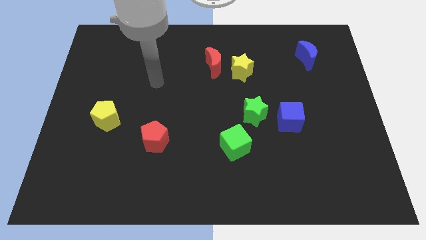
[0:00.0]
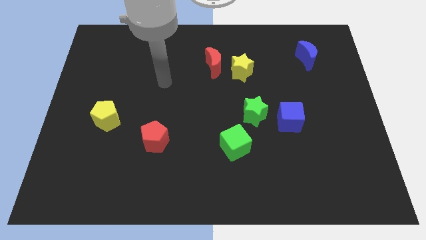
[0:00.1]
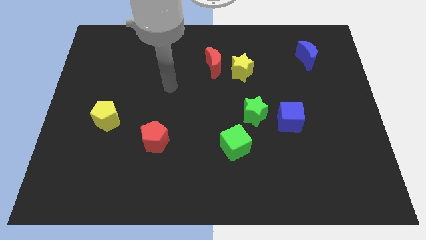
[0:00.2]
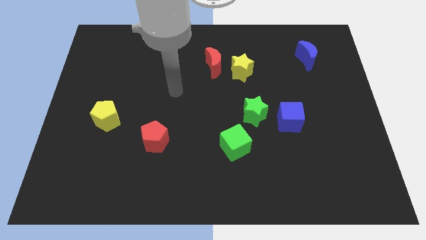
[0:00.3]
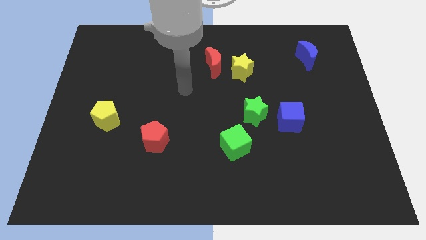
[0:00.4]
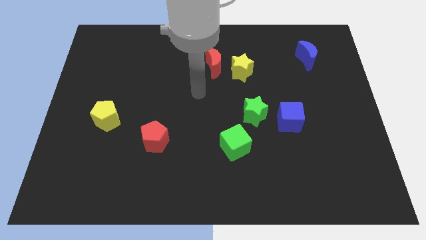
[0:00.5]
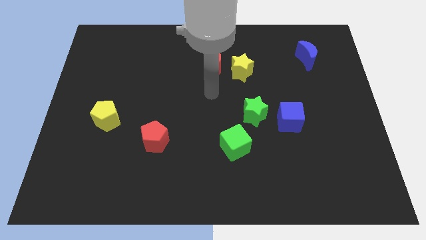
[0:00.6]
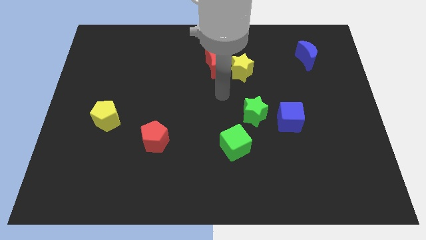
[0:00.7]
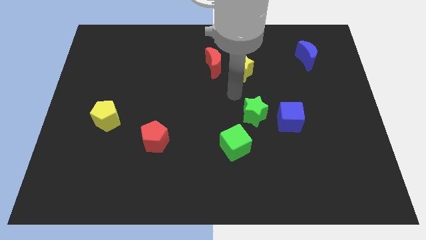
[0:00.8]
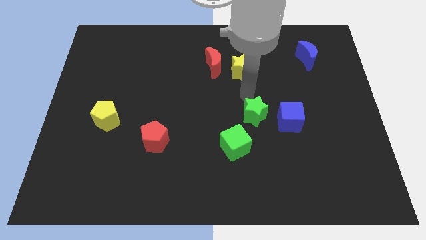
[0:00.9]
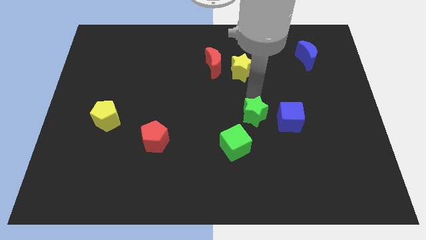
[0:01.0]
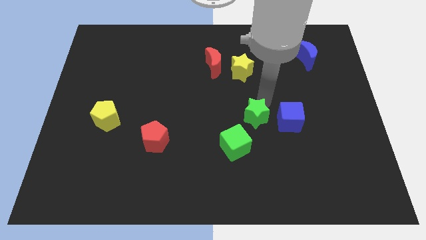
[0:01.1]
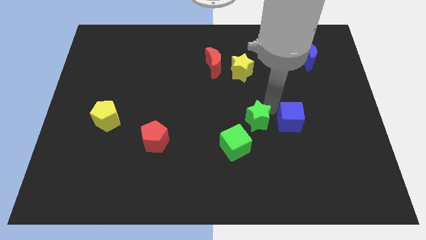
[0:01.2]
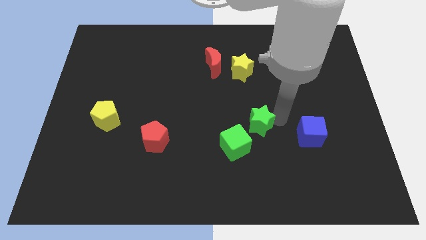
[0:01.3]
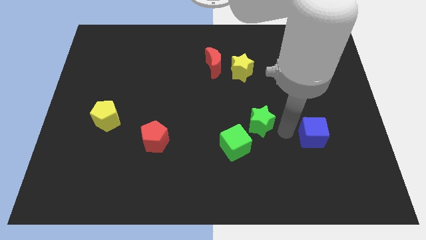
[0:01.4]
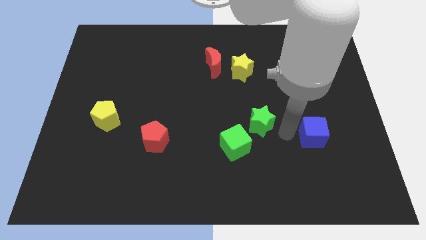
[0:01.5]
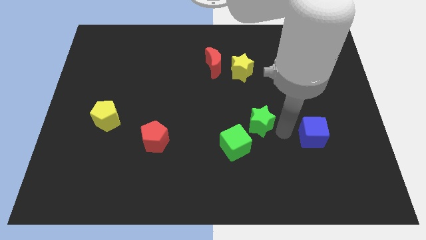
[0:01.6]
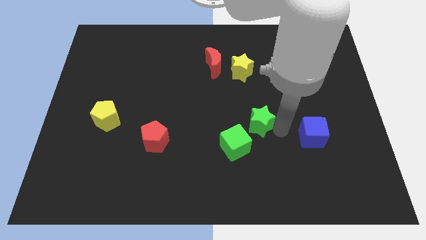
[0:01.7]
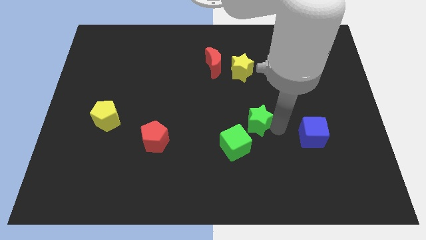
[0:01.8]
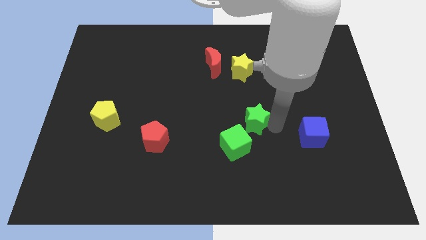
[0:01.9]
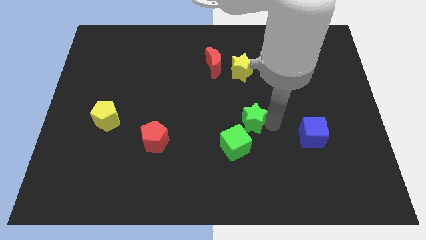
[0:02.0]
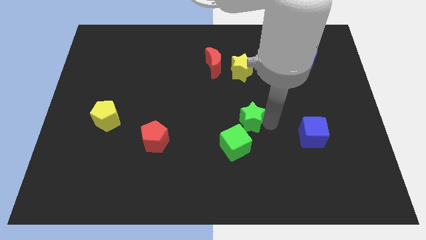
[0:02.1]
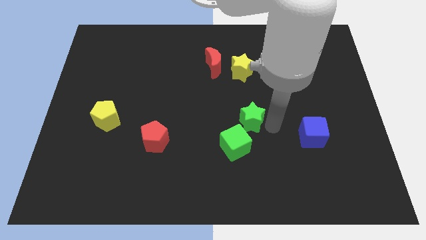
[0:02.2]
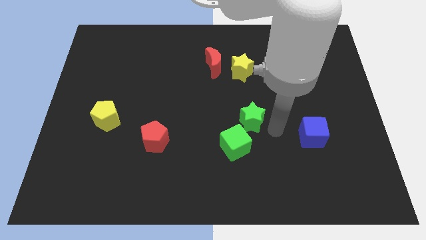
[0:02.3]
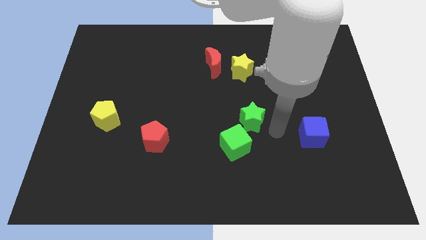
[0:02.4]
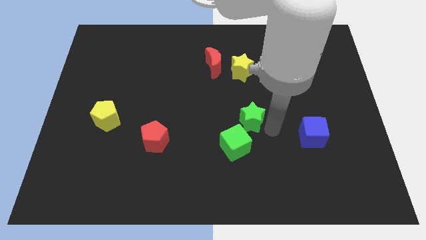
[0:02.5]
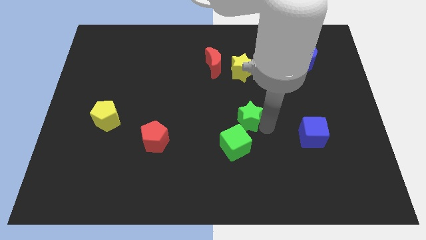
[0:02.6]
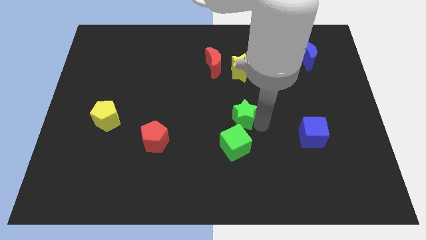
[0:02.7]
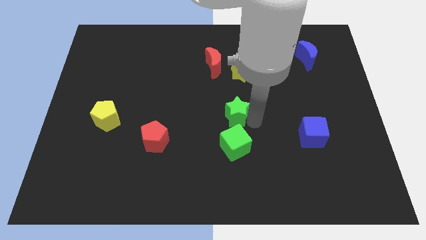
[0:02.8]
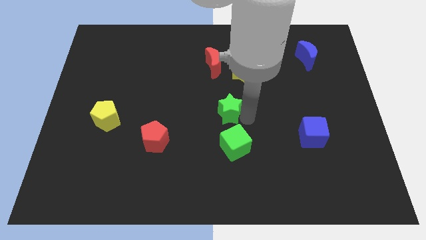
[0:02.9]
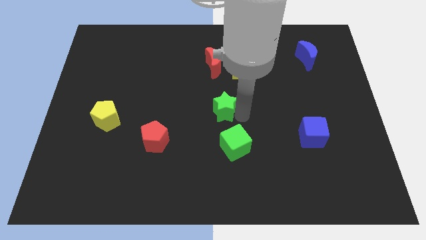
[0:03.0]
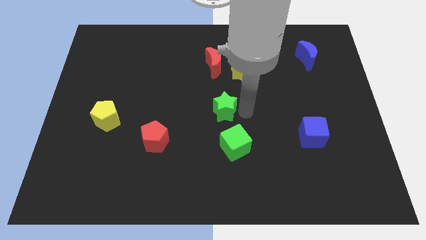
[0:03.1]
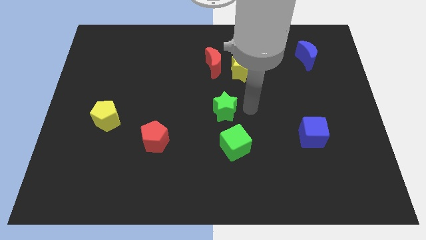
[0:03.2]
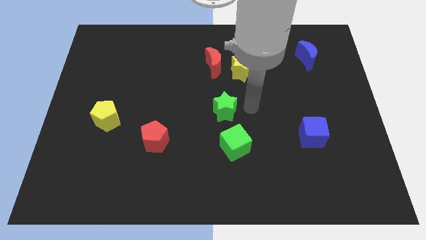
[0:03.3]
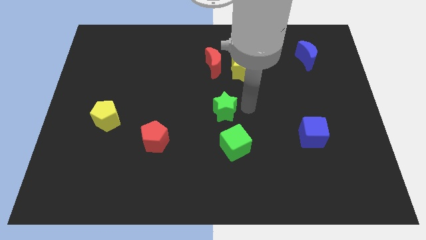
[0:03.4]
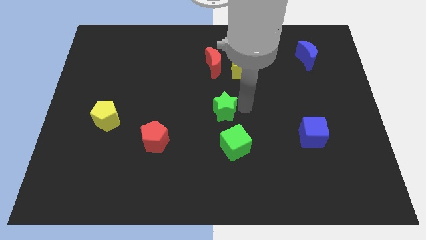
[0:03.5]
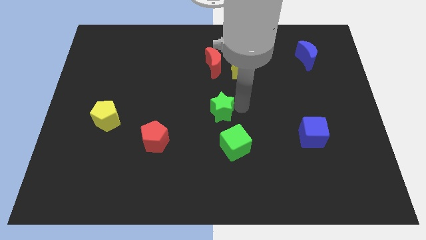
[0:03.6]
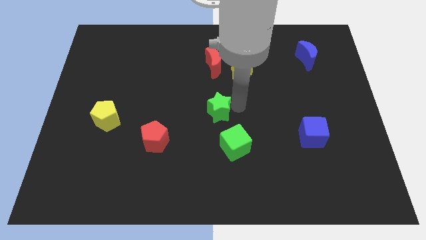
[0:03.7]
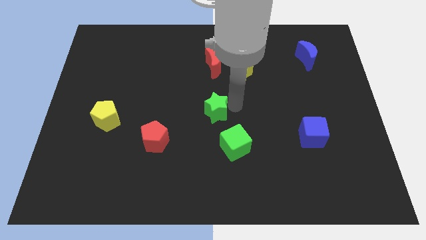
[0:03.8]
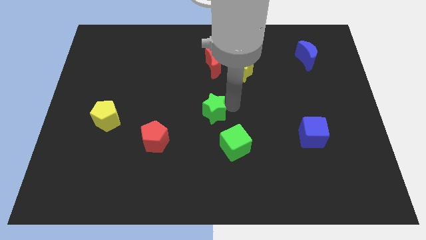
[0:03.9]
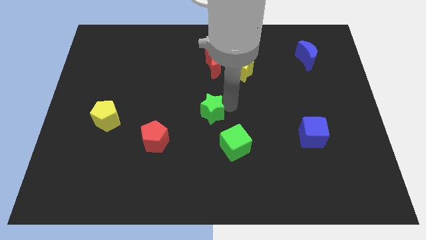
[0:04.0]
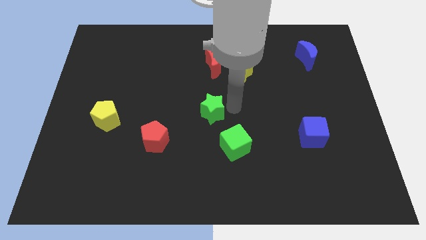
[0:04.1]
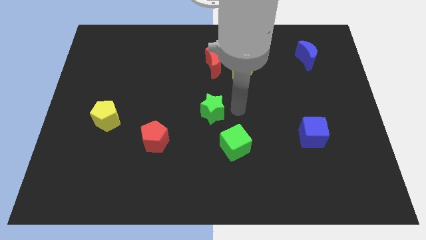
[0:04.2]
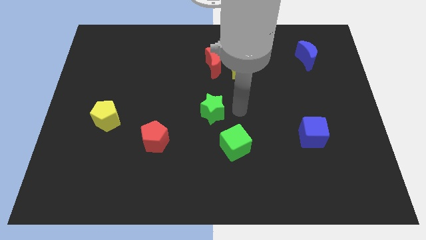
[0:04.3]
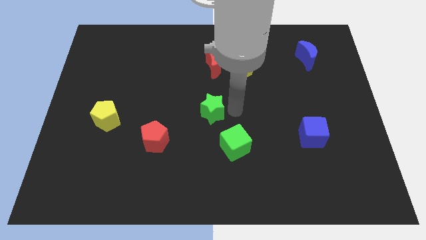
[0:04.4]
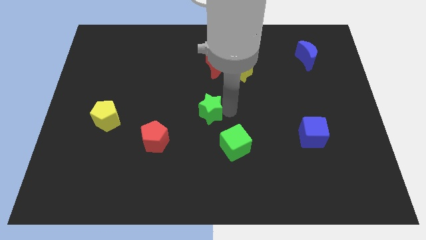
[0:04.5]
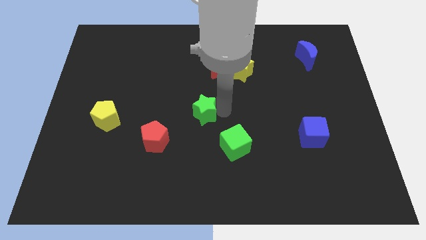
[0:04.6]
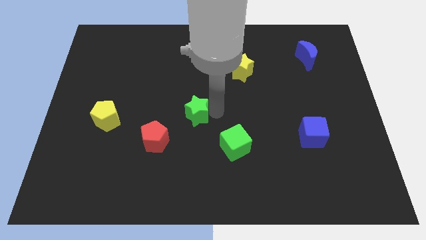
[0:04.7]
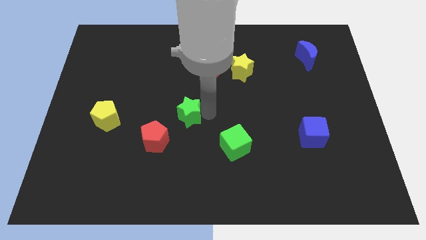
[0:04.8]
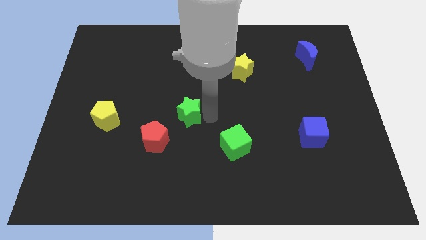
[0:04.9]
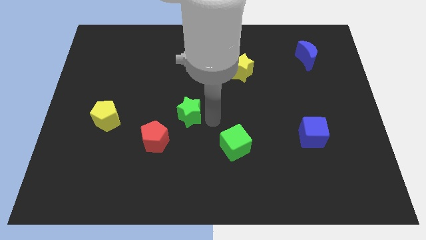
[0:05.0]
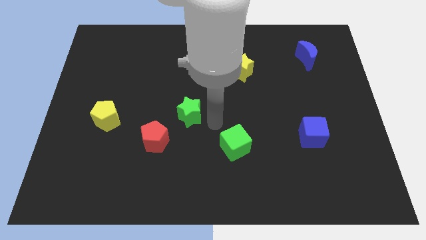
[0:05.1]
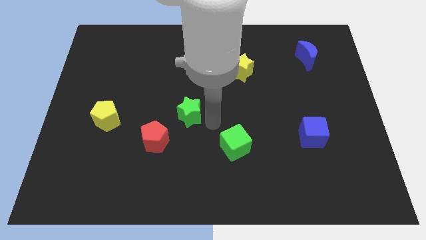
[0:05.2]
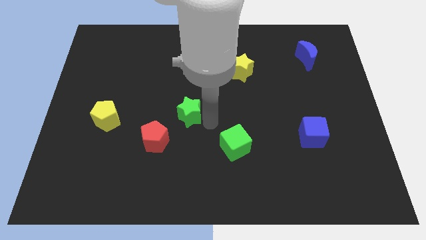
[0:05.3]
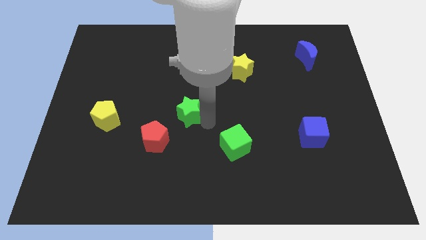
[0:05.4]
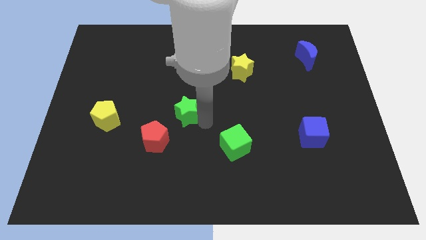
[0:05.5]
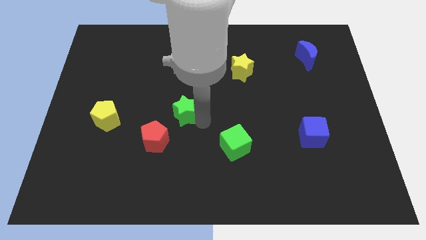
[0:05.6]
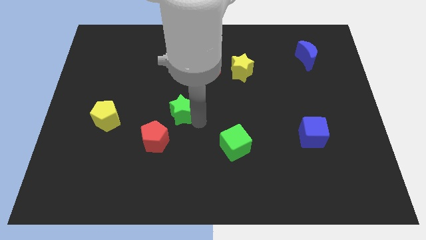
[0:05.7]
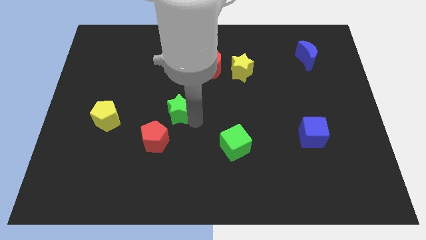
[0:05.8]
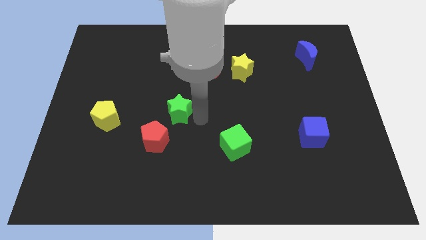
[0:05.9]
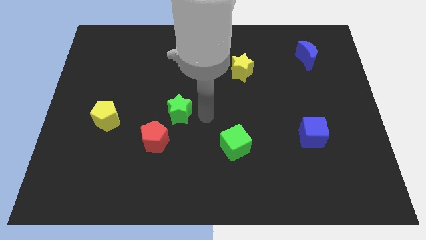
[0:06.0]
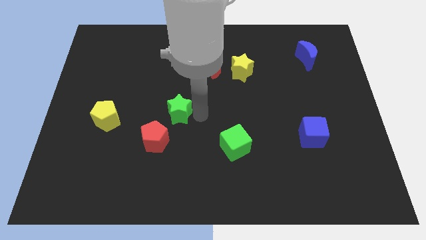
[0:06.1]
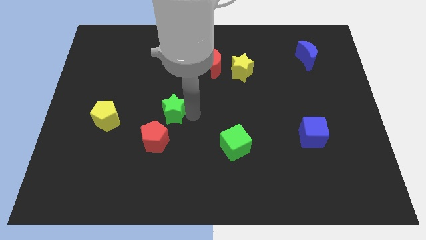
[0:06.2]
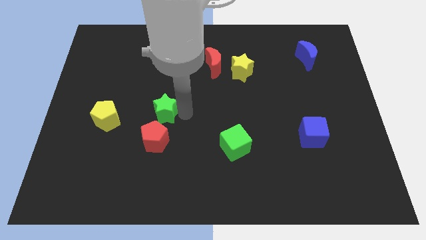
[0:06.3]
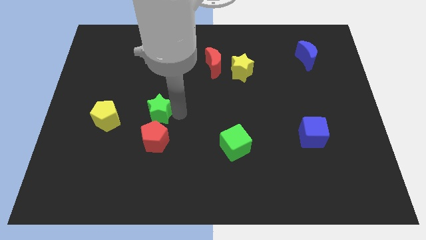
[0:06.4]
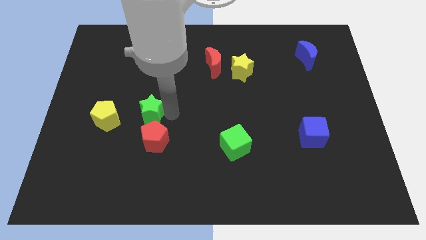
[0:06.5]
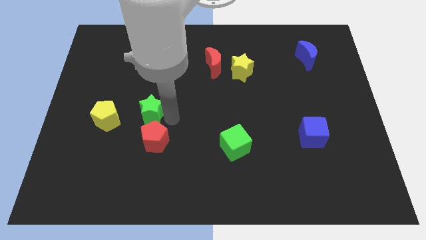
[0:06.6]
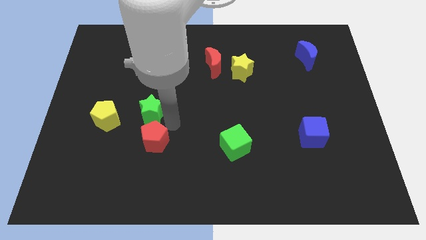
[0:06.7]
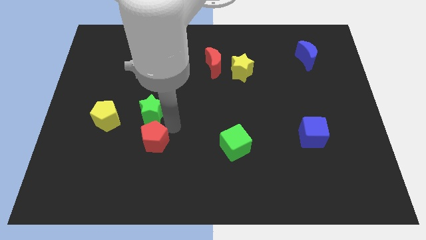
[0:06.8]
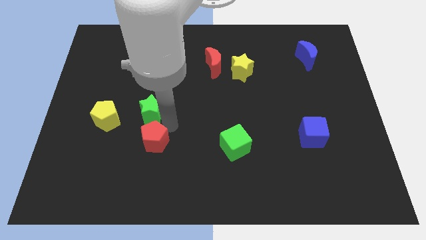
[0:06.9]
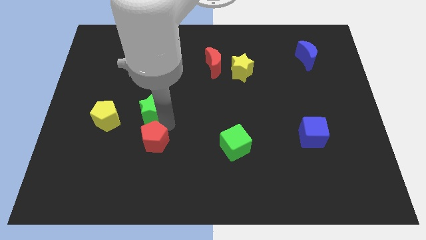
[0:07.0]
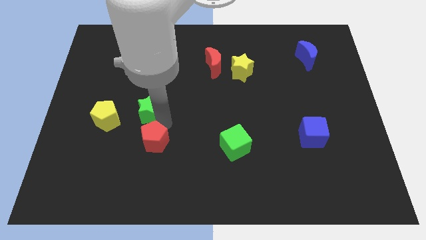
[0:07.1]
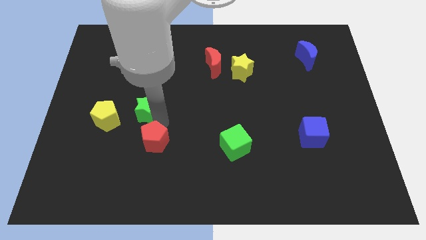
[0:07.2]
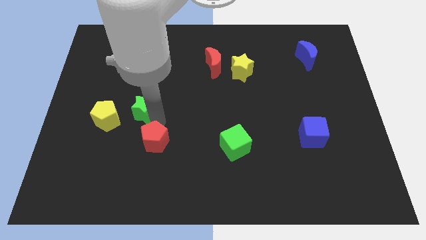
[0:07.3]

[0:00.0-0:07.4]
put the green star diagonally up and to the right of the yellow pentagon
